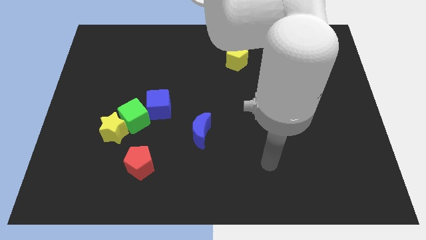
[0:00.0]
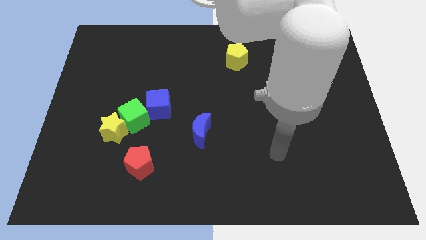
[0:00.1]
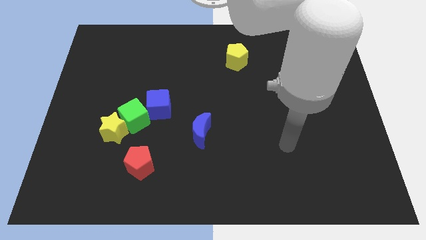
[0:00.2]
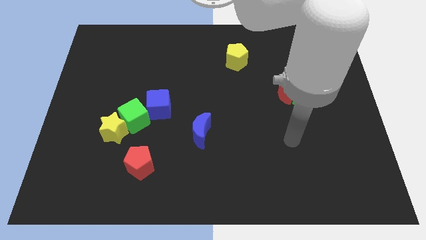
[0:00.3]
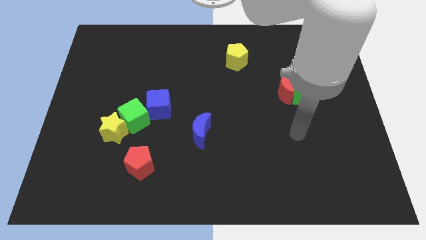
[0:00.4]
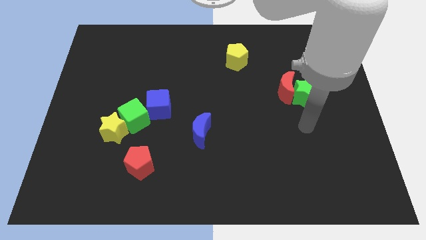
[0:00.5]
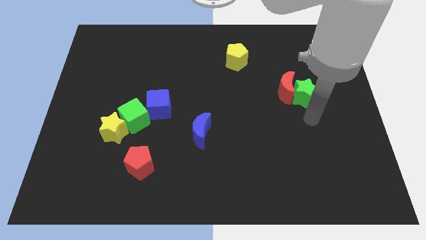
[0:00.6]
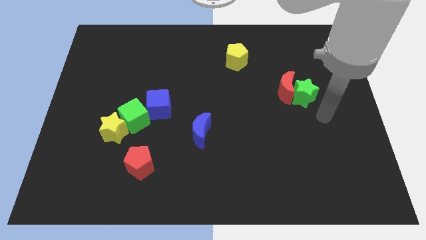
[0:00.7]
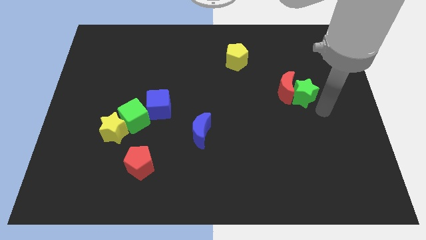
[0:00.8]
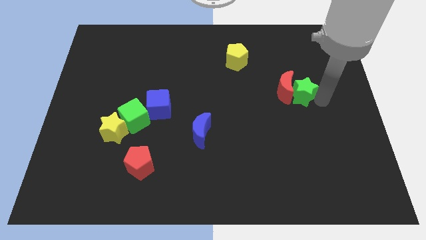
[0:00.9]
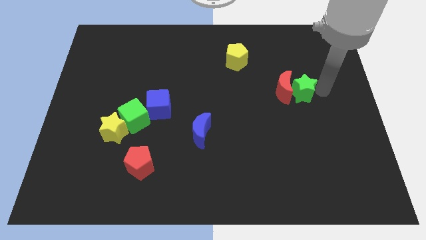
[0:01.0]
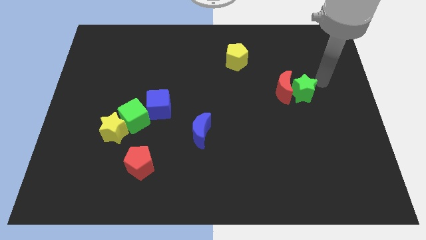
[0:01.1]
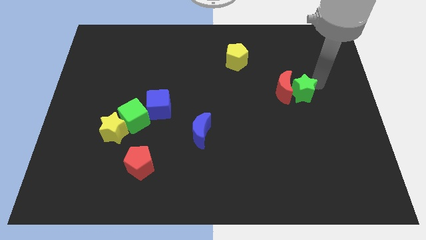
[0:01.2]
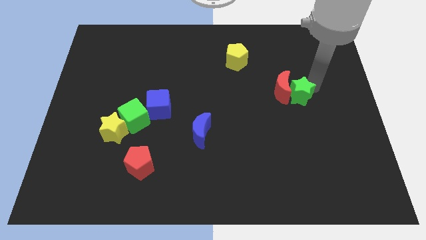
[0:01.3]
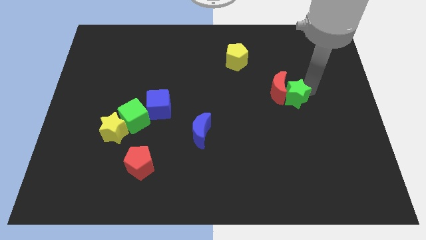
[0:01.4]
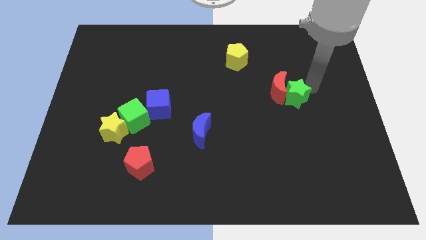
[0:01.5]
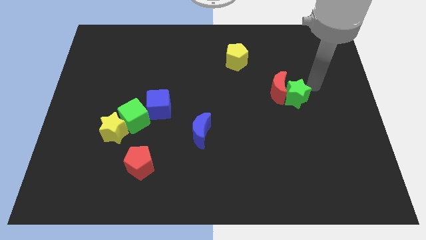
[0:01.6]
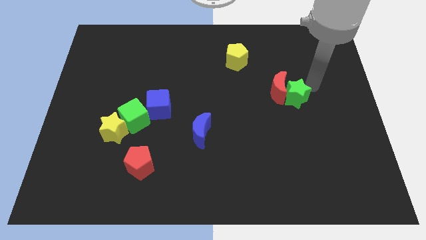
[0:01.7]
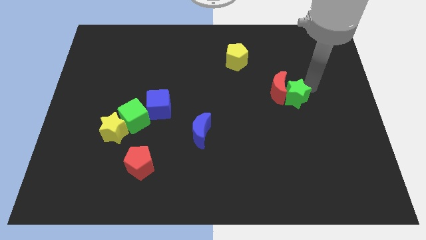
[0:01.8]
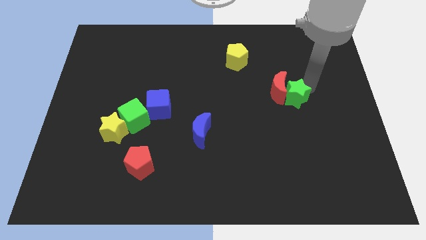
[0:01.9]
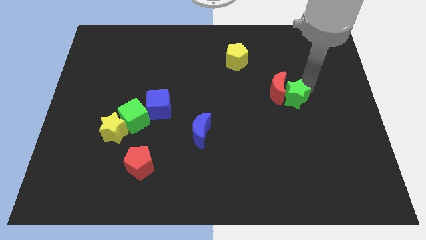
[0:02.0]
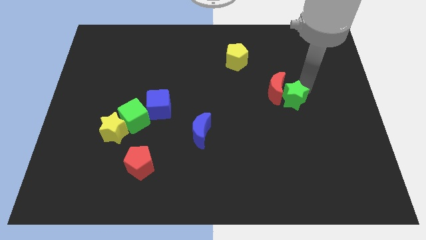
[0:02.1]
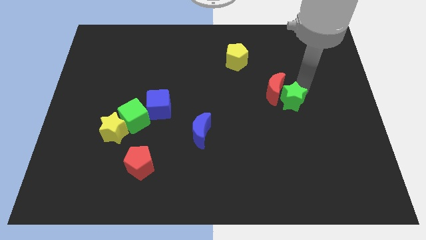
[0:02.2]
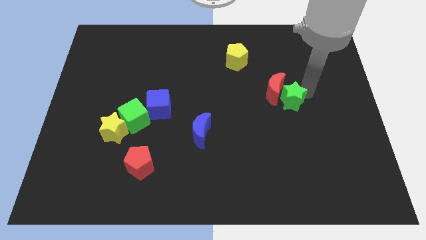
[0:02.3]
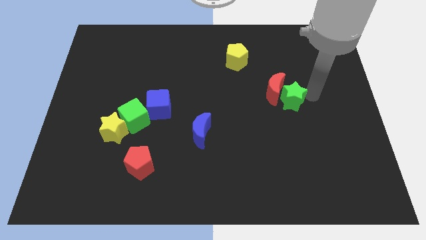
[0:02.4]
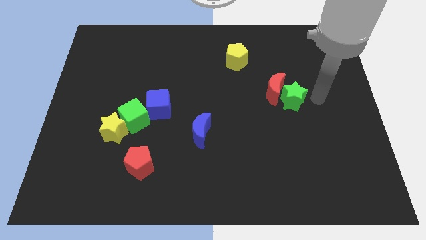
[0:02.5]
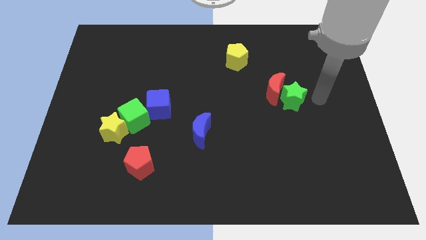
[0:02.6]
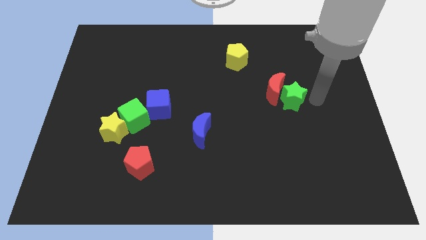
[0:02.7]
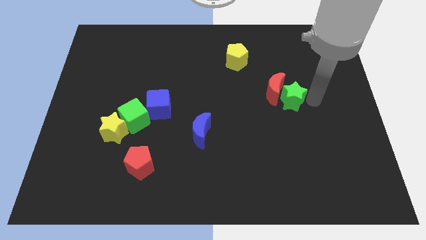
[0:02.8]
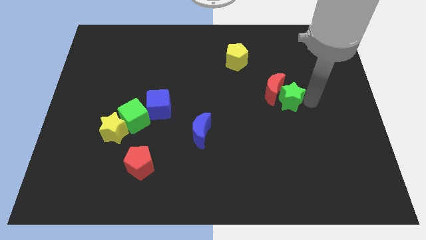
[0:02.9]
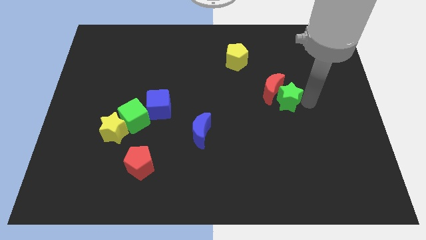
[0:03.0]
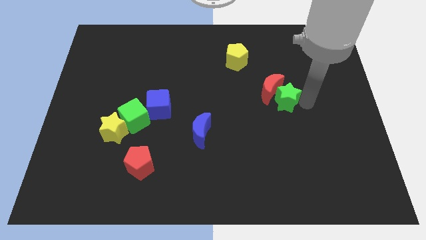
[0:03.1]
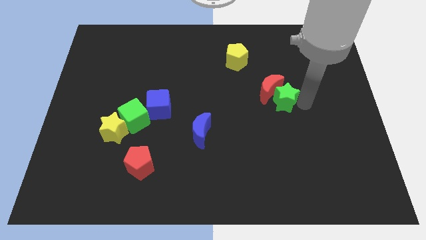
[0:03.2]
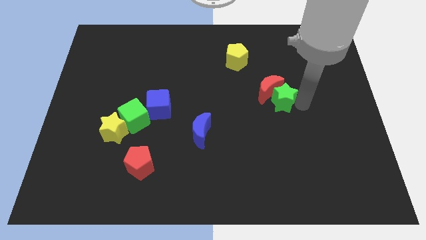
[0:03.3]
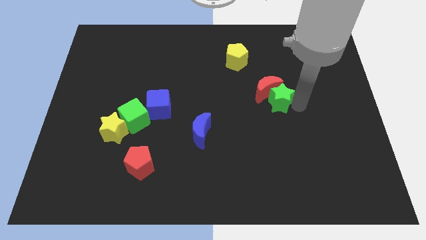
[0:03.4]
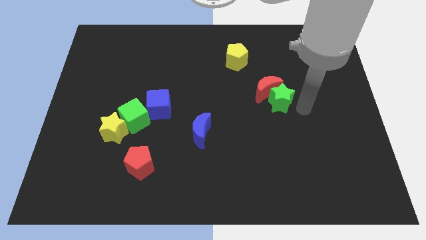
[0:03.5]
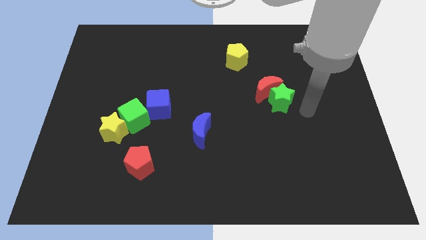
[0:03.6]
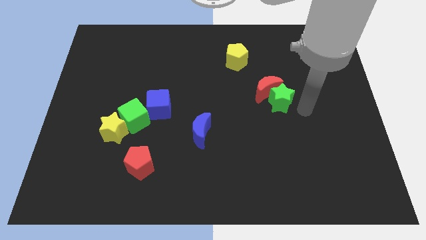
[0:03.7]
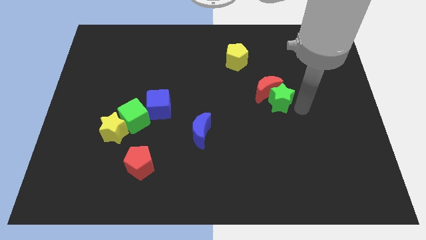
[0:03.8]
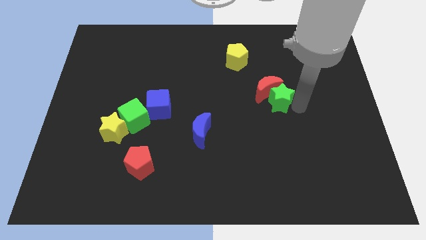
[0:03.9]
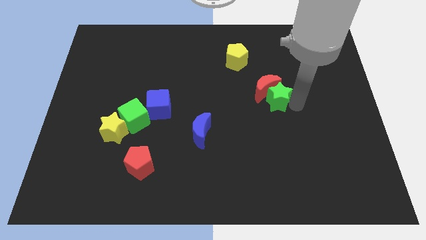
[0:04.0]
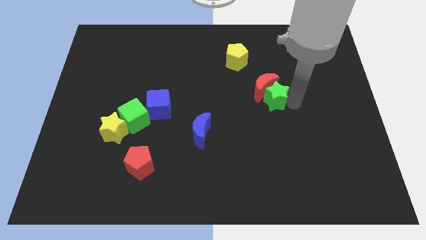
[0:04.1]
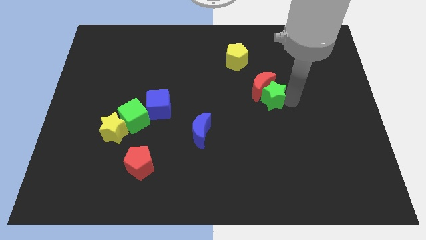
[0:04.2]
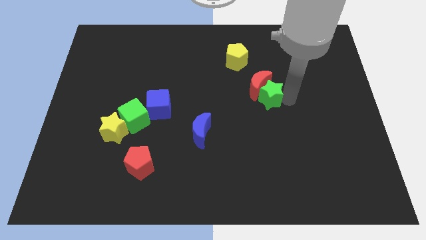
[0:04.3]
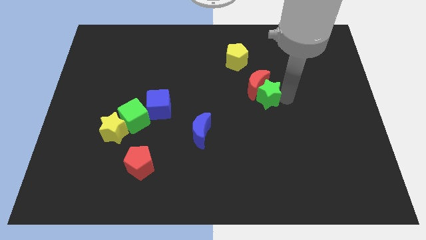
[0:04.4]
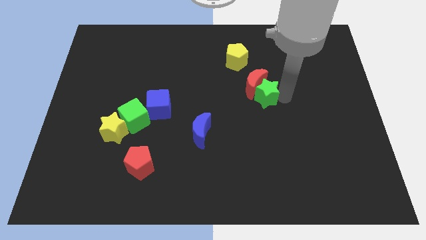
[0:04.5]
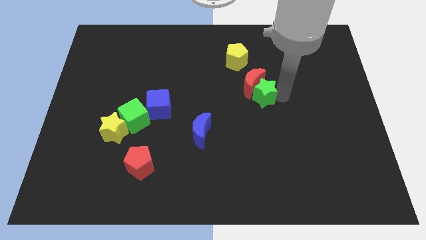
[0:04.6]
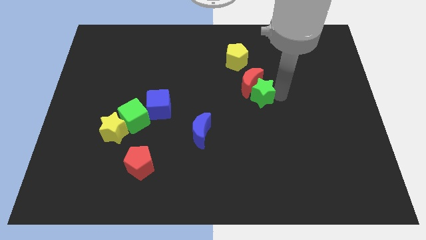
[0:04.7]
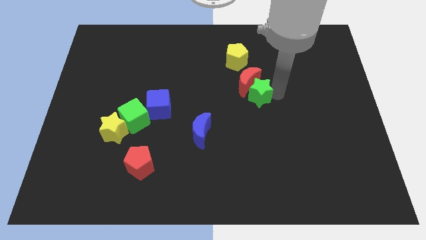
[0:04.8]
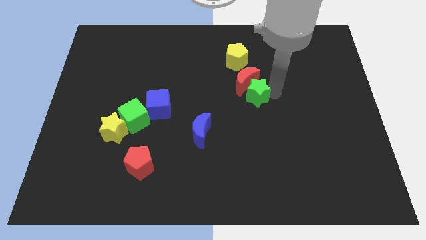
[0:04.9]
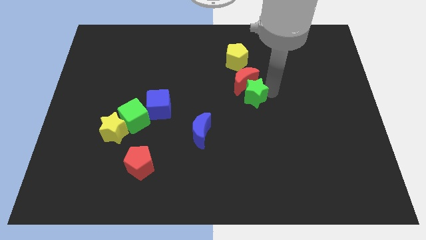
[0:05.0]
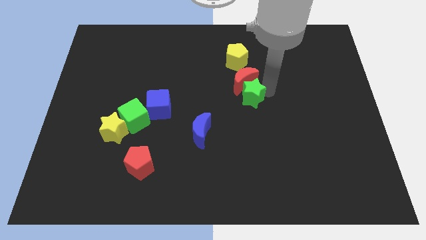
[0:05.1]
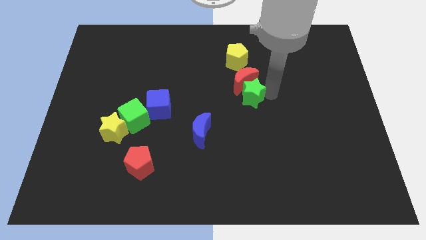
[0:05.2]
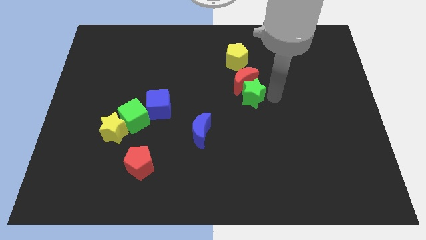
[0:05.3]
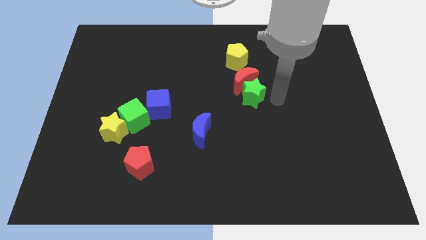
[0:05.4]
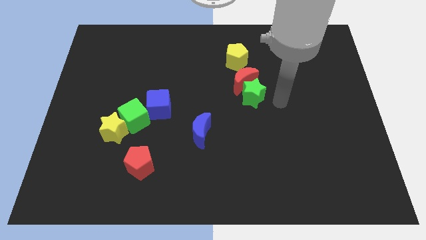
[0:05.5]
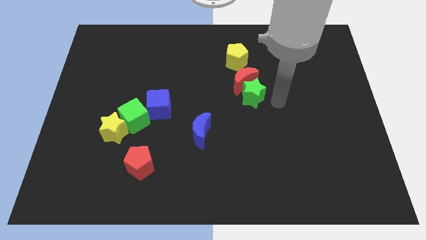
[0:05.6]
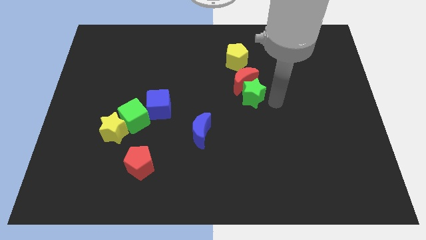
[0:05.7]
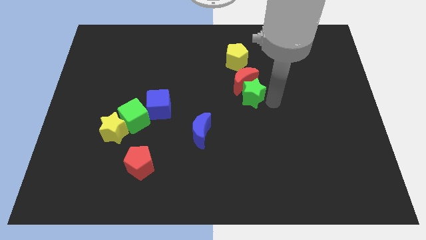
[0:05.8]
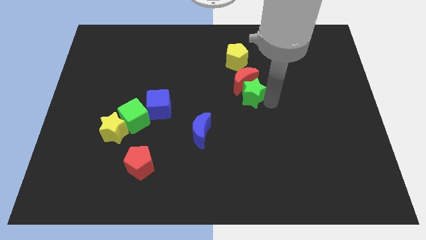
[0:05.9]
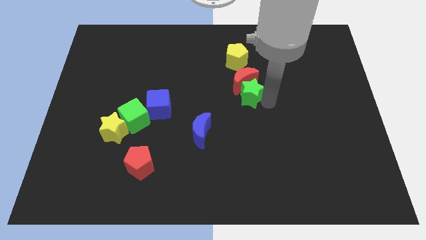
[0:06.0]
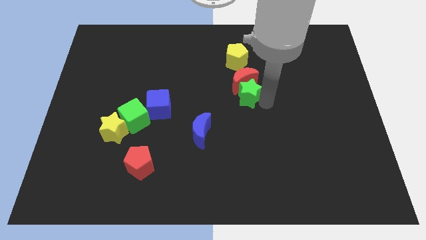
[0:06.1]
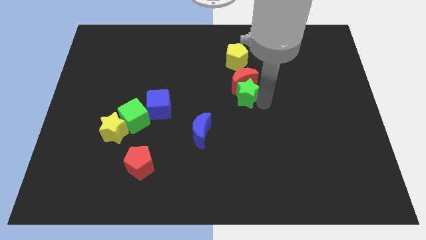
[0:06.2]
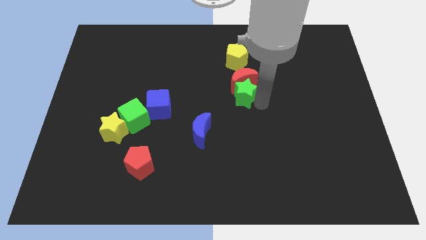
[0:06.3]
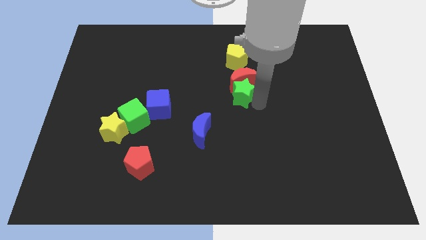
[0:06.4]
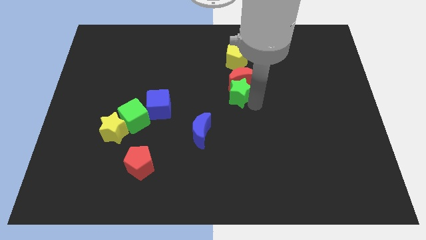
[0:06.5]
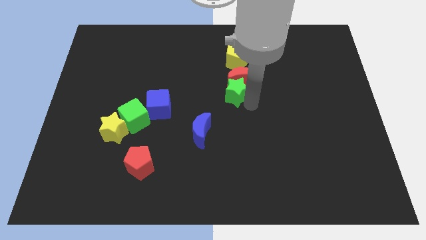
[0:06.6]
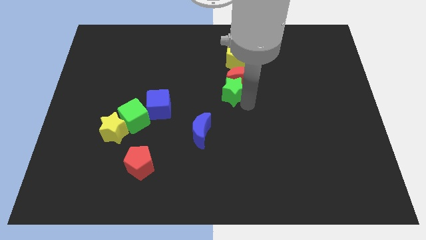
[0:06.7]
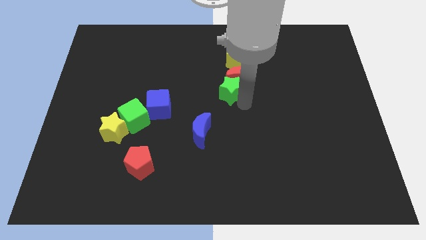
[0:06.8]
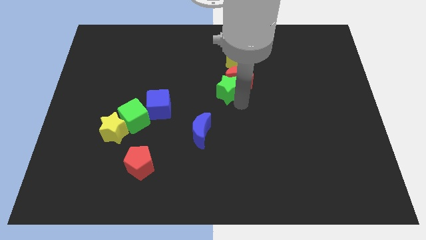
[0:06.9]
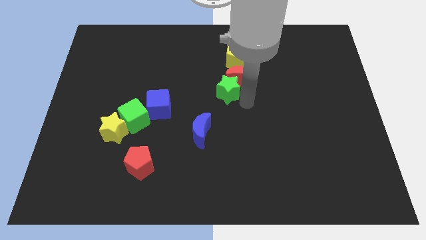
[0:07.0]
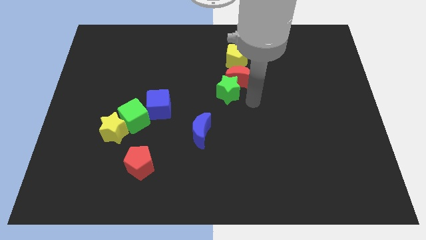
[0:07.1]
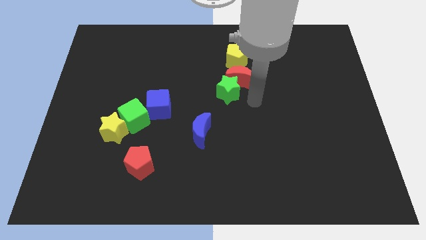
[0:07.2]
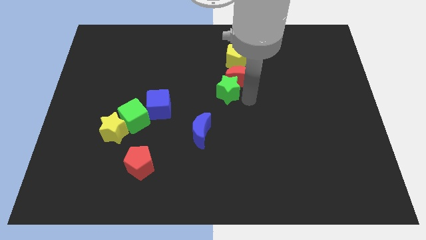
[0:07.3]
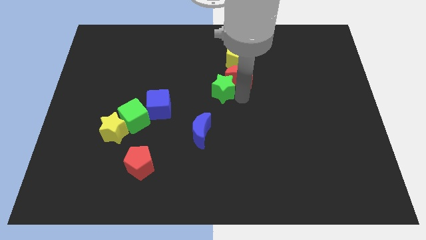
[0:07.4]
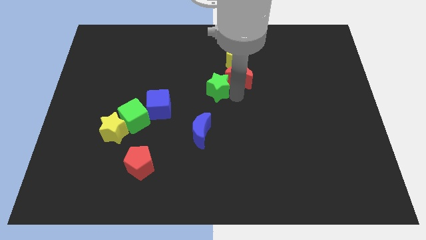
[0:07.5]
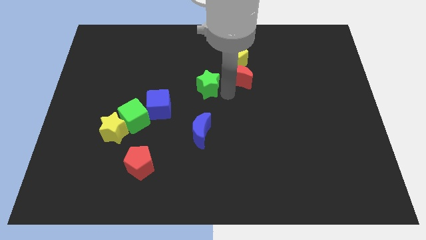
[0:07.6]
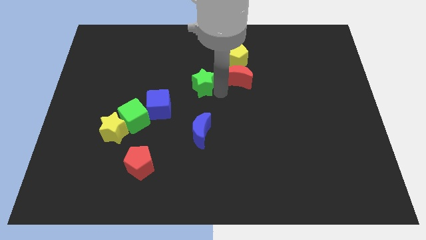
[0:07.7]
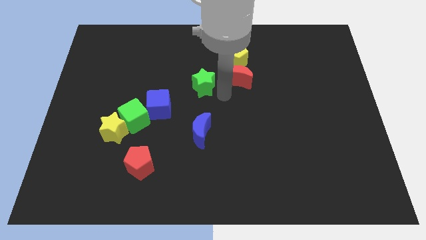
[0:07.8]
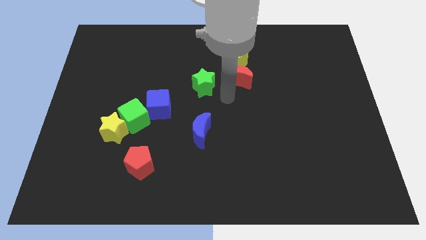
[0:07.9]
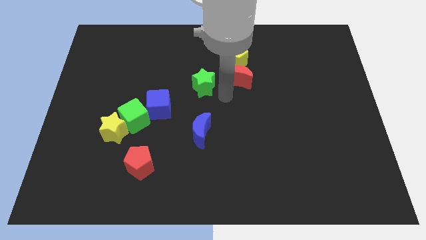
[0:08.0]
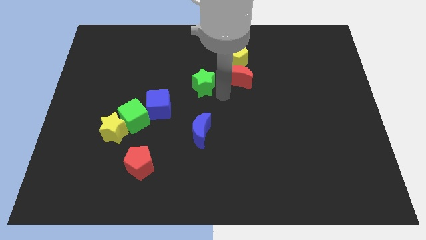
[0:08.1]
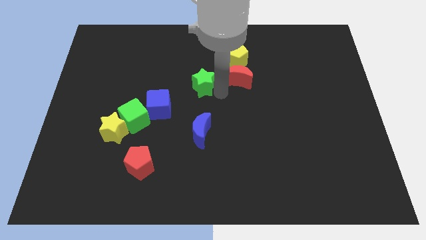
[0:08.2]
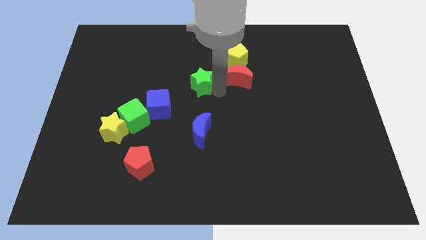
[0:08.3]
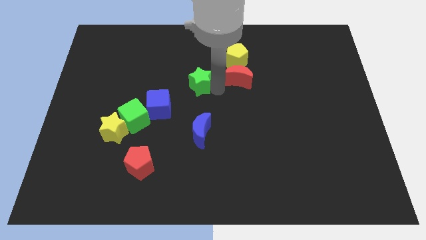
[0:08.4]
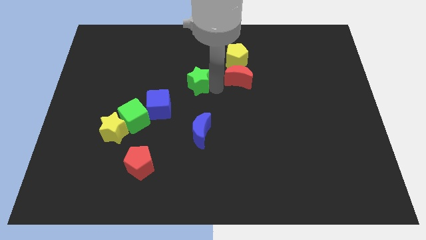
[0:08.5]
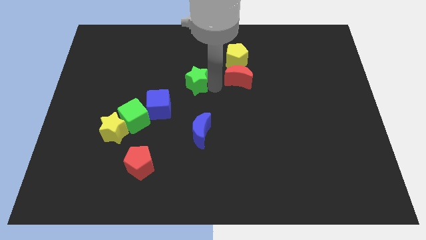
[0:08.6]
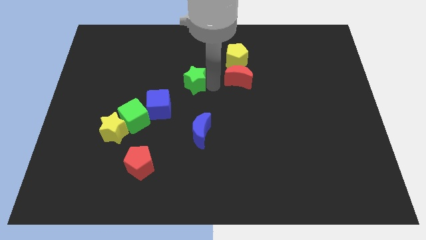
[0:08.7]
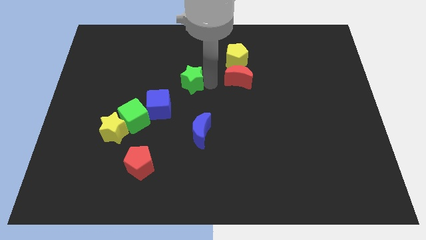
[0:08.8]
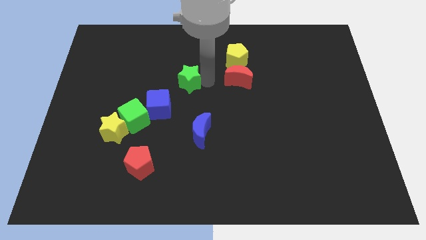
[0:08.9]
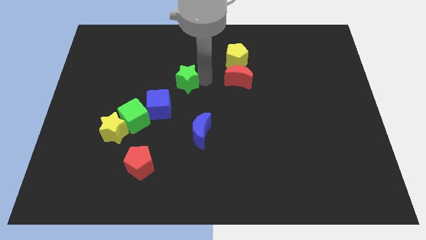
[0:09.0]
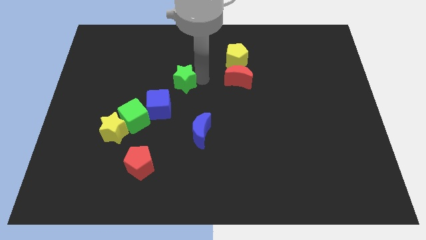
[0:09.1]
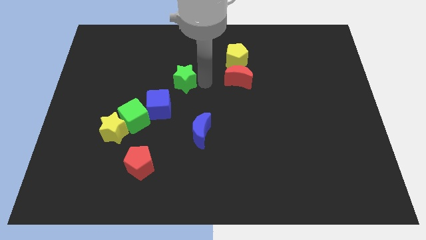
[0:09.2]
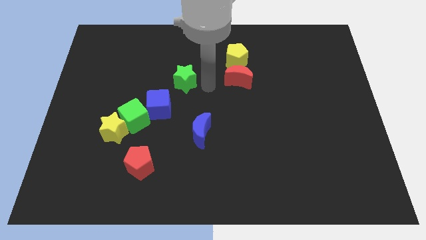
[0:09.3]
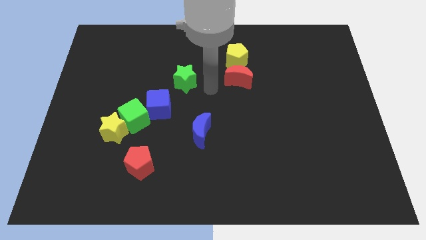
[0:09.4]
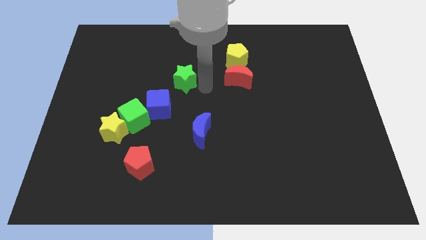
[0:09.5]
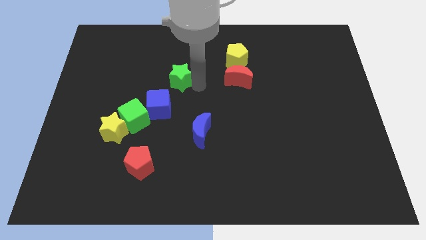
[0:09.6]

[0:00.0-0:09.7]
move the green star above the blue cube
